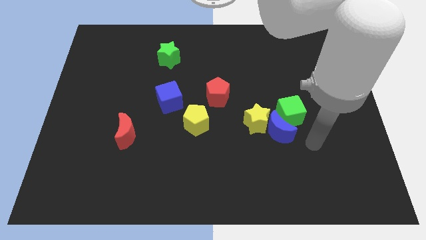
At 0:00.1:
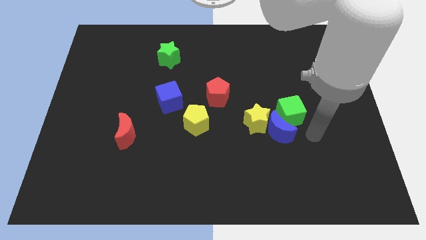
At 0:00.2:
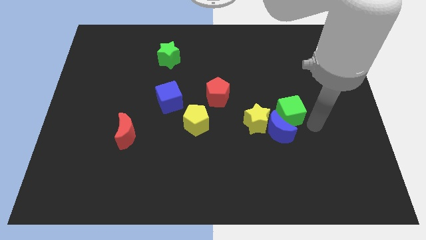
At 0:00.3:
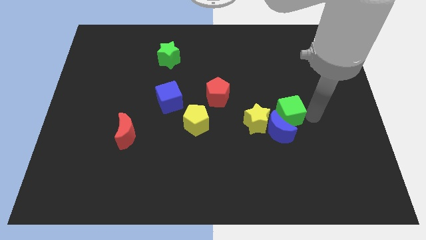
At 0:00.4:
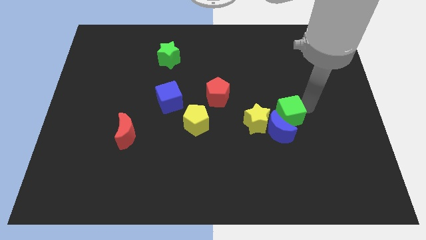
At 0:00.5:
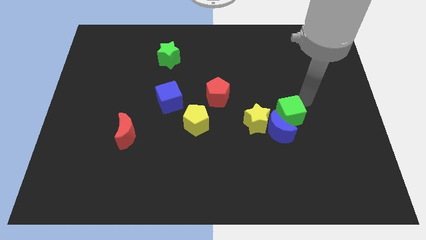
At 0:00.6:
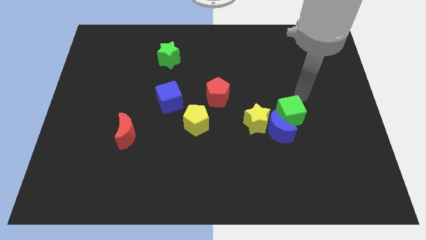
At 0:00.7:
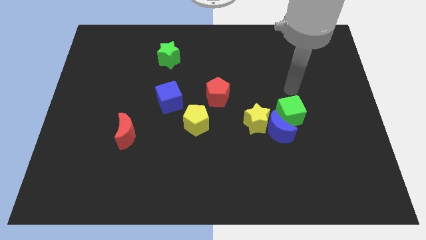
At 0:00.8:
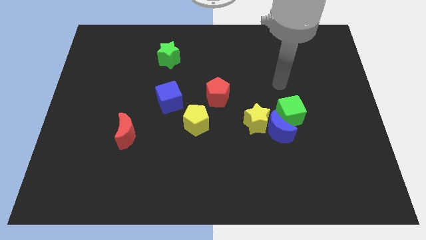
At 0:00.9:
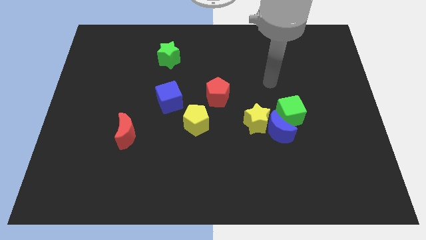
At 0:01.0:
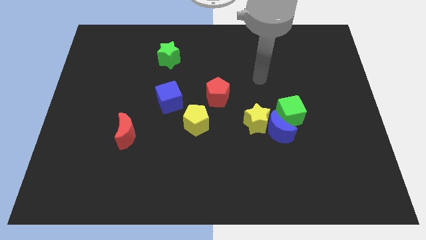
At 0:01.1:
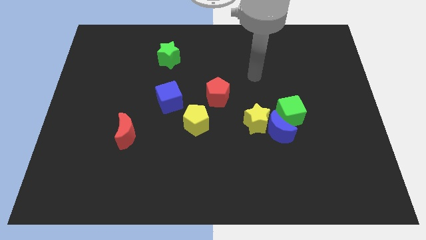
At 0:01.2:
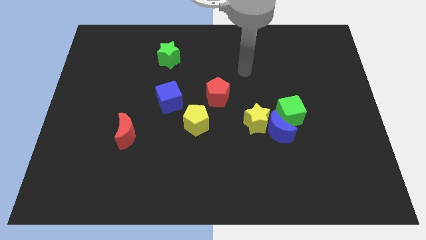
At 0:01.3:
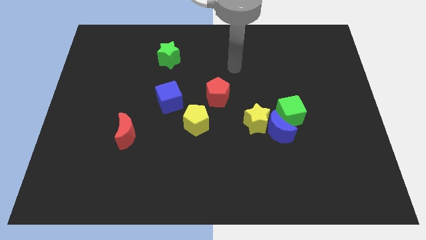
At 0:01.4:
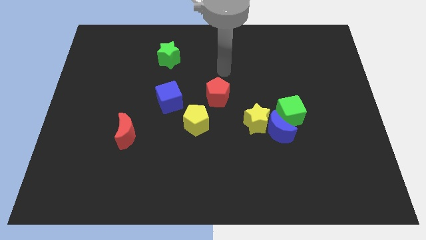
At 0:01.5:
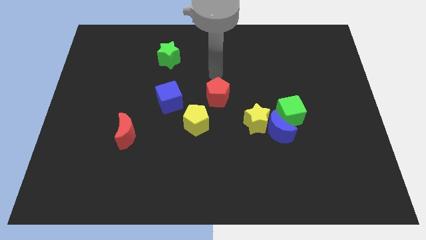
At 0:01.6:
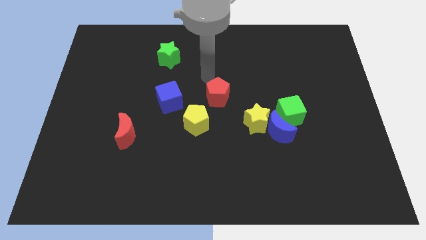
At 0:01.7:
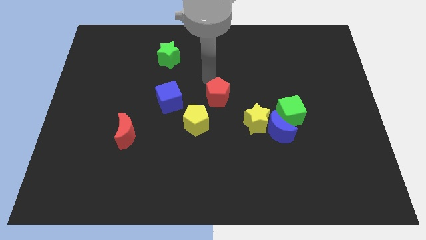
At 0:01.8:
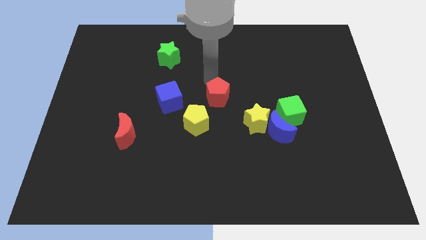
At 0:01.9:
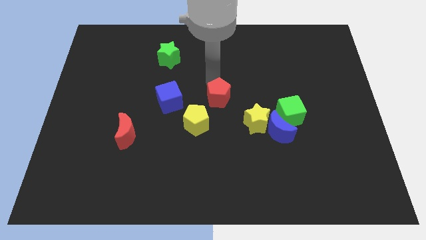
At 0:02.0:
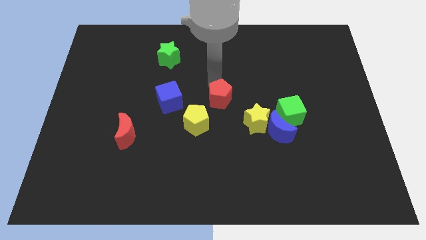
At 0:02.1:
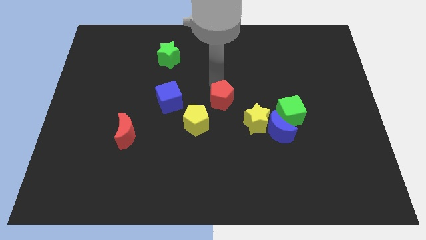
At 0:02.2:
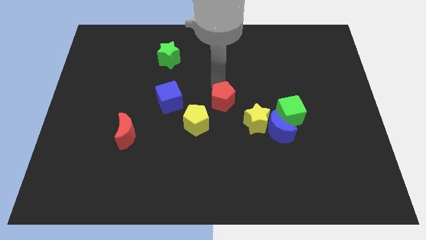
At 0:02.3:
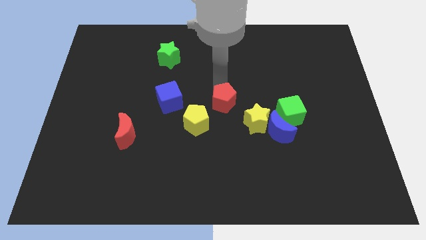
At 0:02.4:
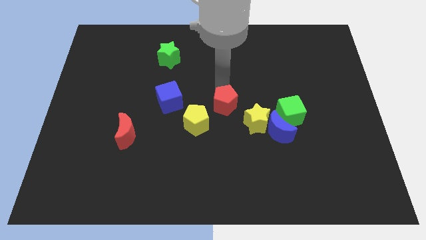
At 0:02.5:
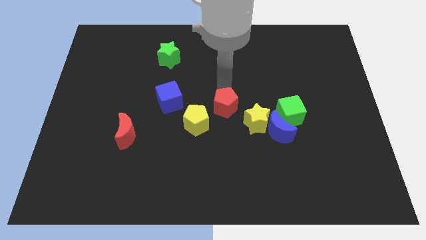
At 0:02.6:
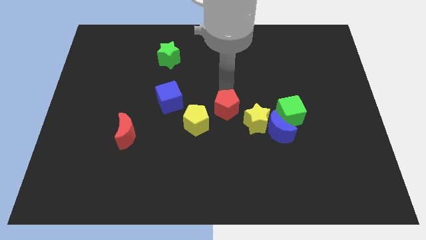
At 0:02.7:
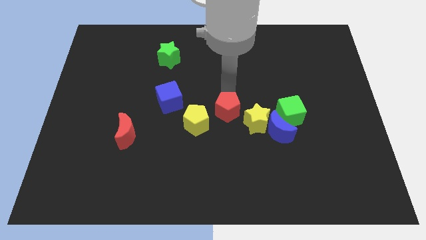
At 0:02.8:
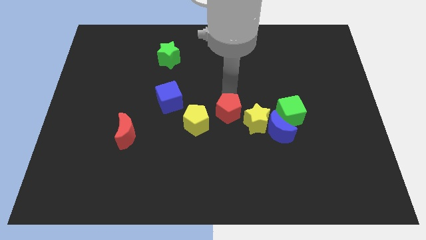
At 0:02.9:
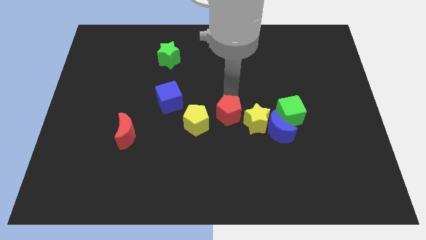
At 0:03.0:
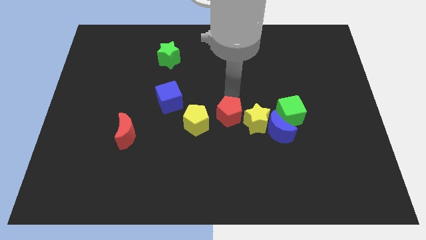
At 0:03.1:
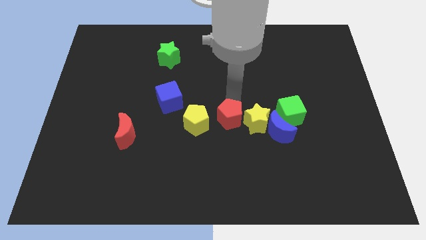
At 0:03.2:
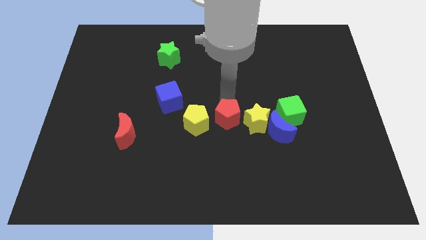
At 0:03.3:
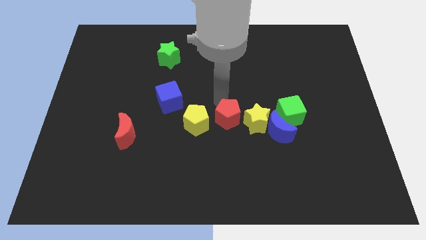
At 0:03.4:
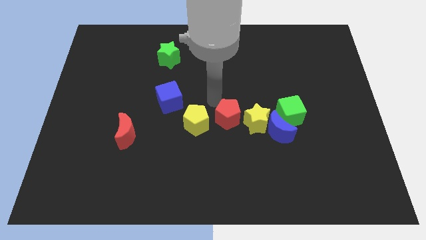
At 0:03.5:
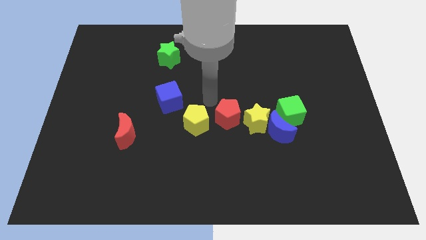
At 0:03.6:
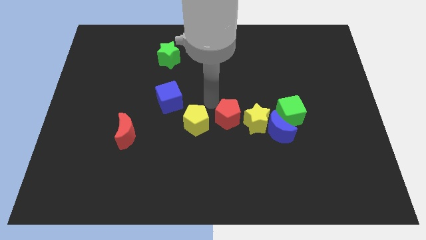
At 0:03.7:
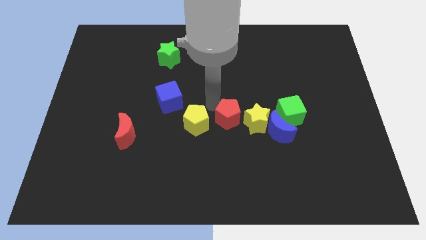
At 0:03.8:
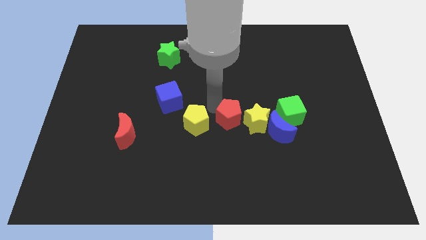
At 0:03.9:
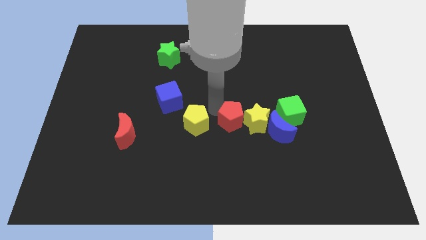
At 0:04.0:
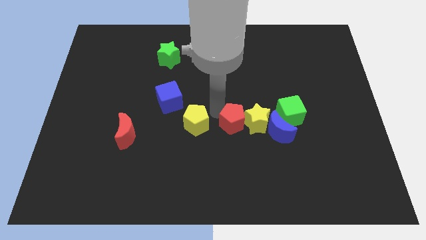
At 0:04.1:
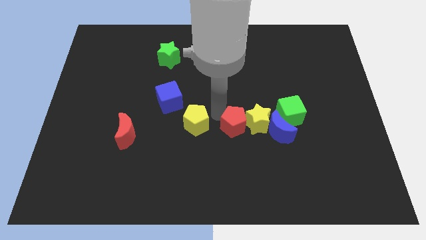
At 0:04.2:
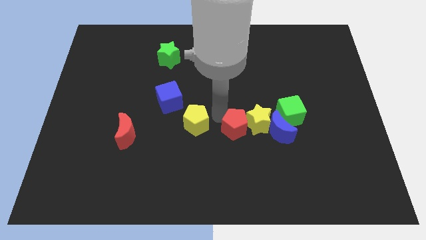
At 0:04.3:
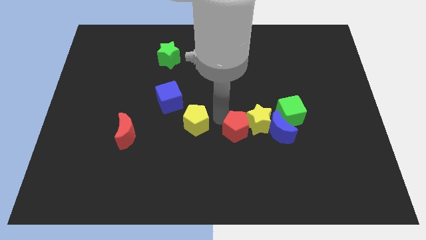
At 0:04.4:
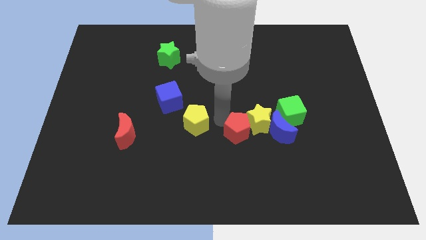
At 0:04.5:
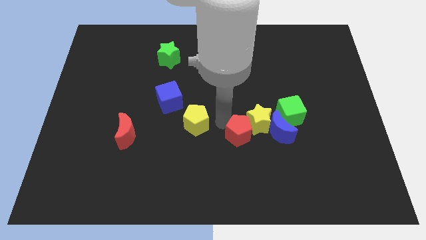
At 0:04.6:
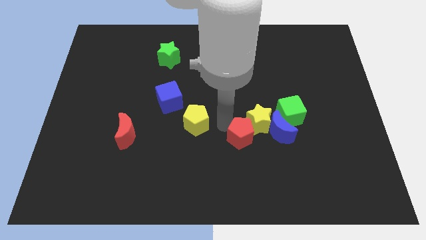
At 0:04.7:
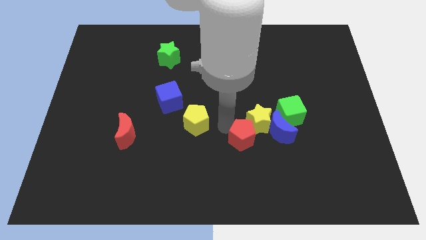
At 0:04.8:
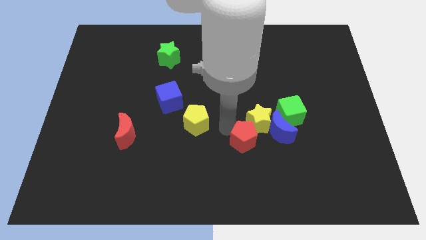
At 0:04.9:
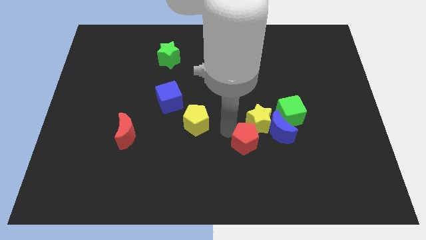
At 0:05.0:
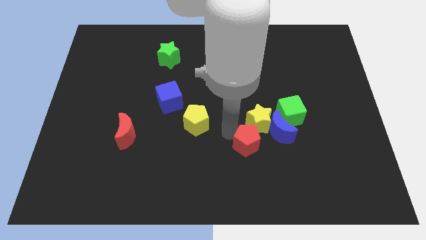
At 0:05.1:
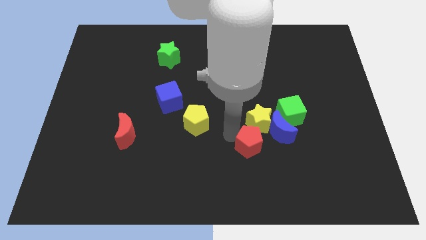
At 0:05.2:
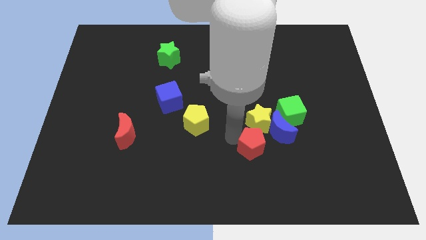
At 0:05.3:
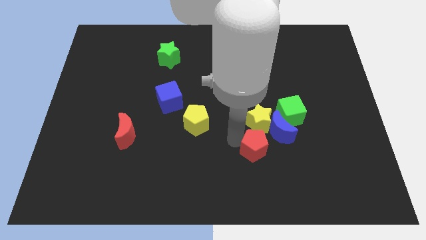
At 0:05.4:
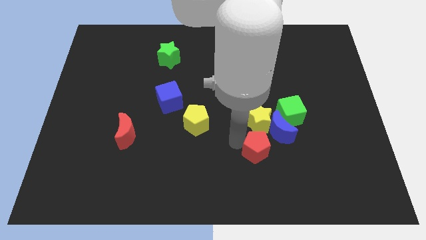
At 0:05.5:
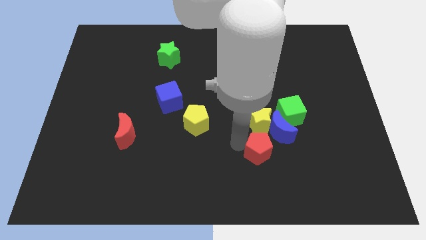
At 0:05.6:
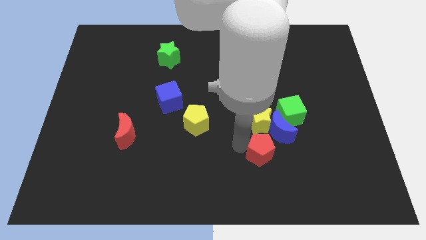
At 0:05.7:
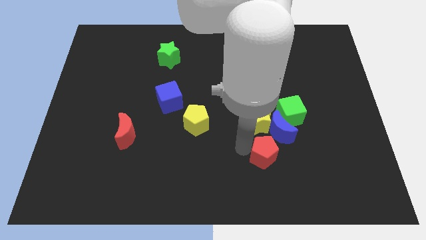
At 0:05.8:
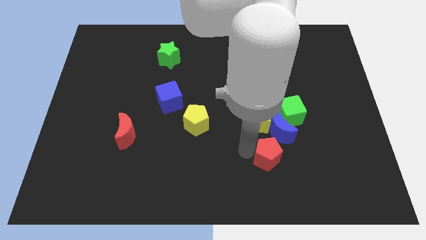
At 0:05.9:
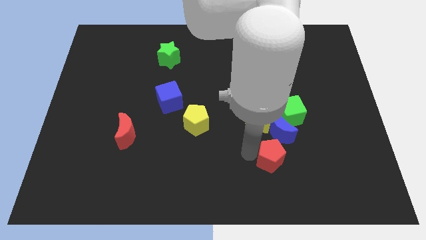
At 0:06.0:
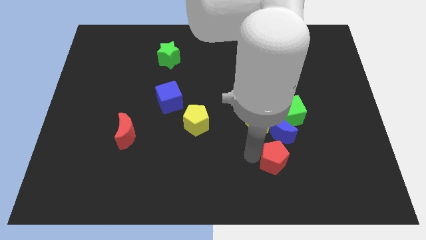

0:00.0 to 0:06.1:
slide the red pentagon down and then to the right

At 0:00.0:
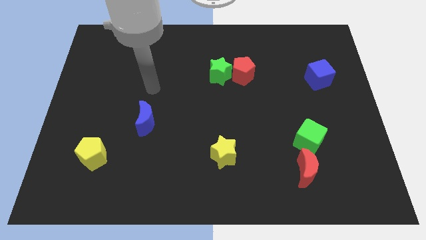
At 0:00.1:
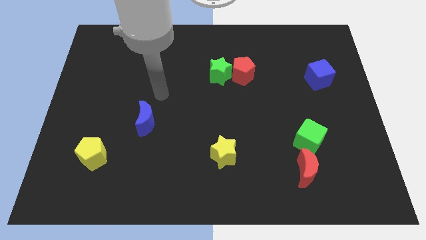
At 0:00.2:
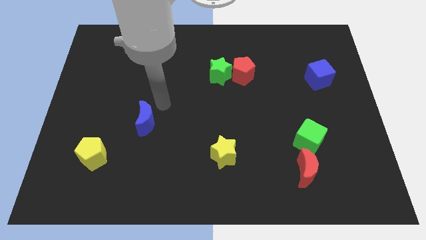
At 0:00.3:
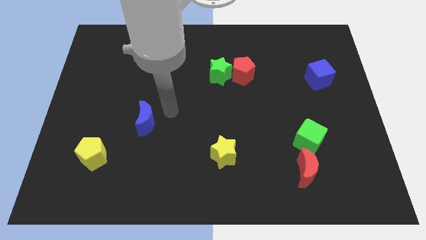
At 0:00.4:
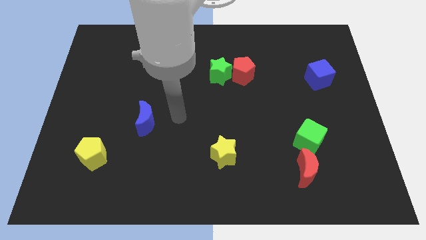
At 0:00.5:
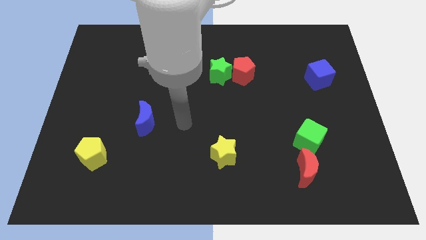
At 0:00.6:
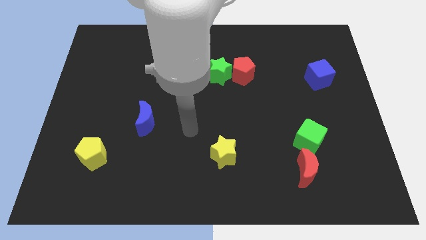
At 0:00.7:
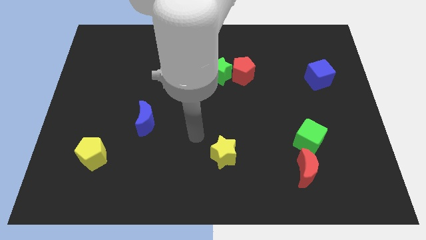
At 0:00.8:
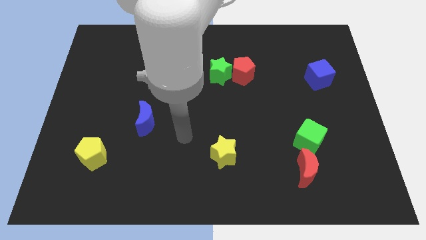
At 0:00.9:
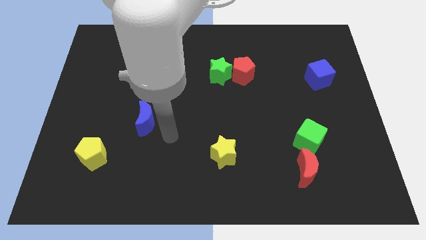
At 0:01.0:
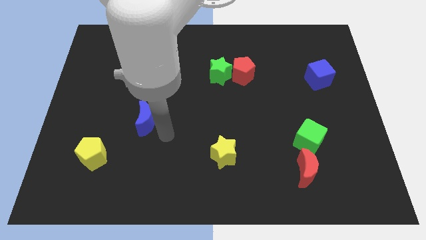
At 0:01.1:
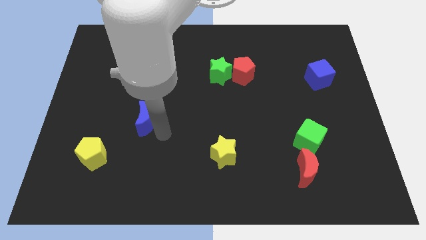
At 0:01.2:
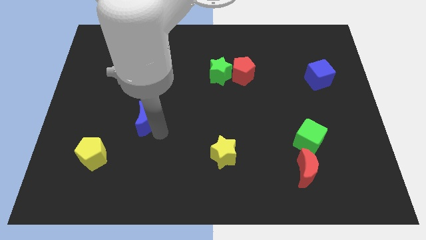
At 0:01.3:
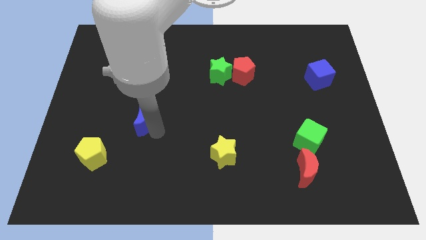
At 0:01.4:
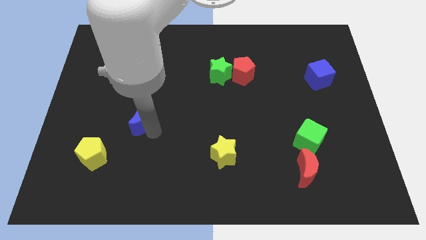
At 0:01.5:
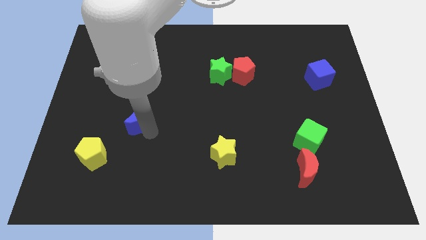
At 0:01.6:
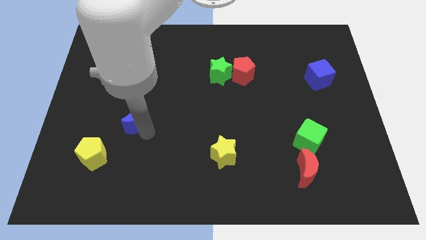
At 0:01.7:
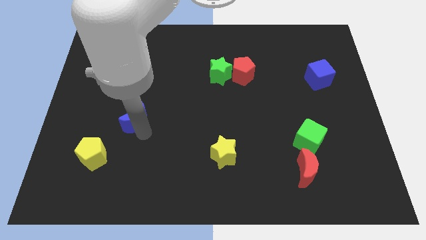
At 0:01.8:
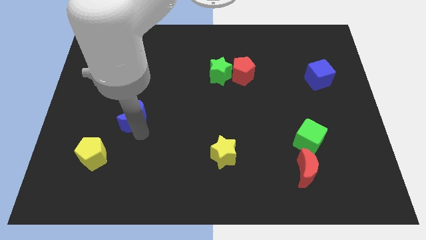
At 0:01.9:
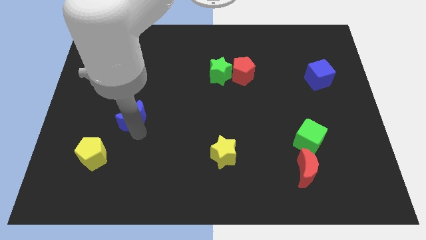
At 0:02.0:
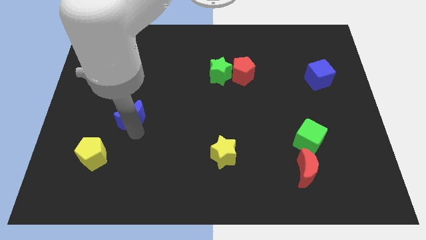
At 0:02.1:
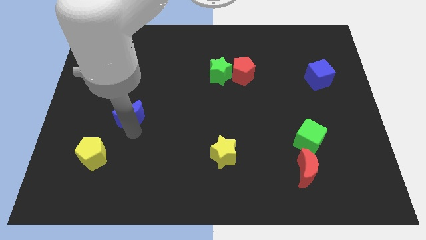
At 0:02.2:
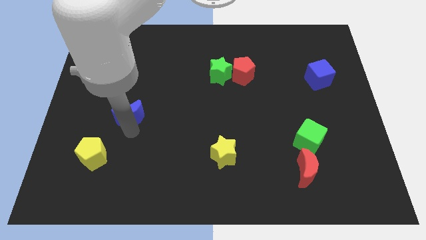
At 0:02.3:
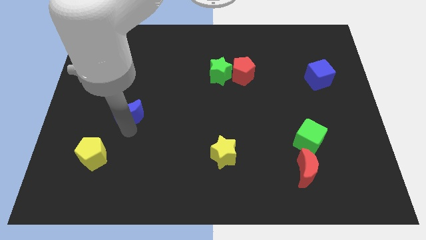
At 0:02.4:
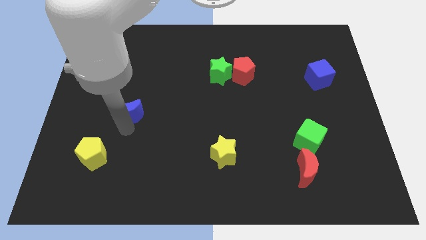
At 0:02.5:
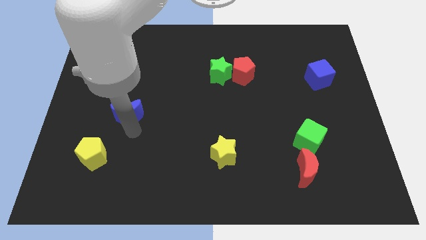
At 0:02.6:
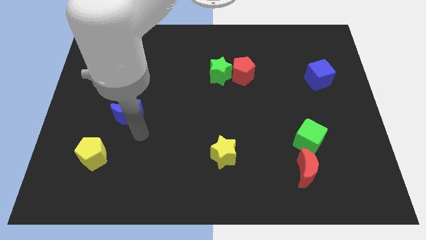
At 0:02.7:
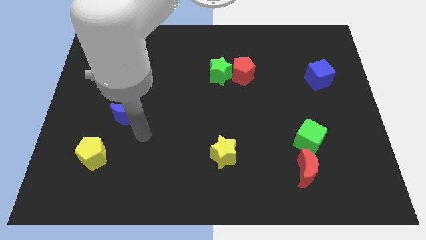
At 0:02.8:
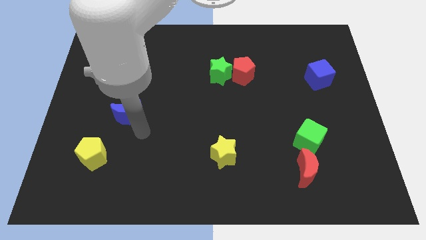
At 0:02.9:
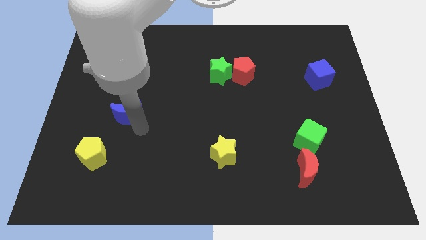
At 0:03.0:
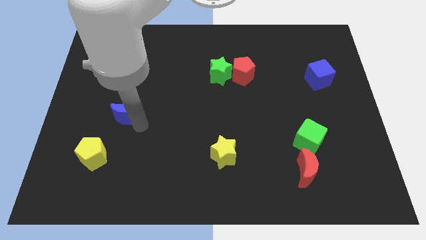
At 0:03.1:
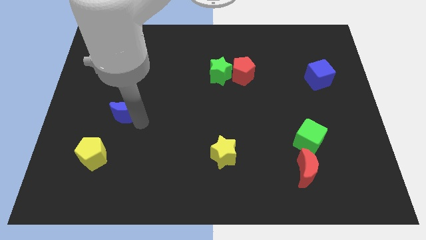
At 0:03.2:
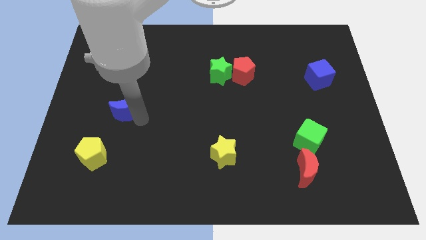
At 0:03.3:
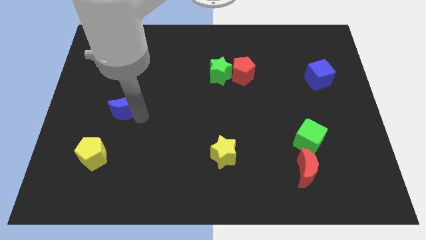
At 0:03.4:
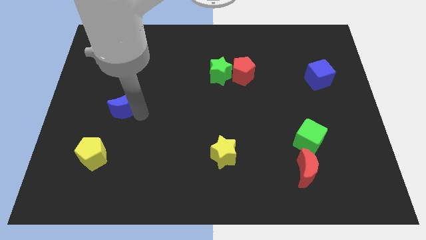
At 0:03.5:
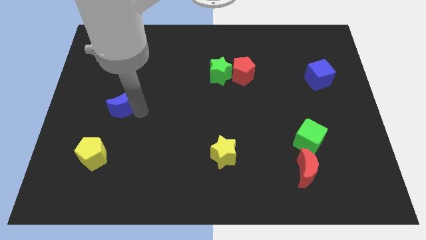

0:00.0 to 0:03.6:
slide the blue moon a little upwards and to the left
